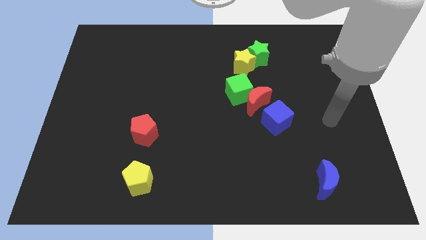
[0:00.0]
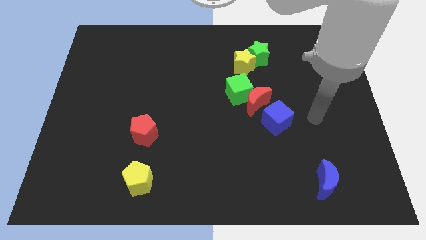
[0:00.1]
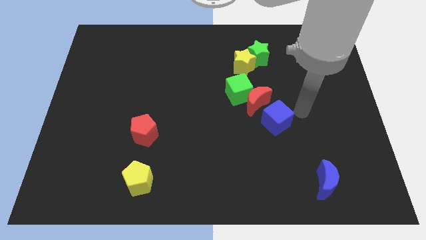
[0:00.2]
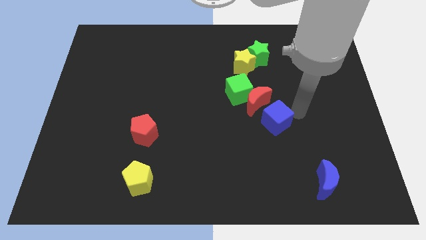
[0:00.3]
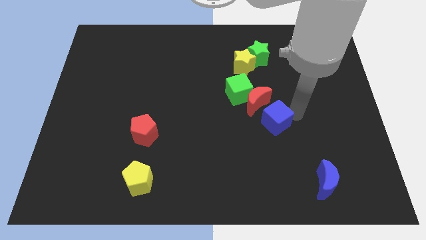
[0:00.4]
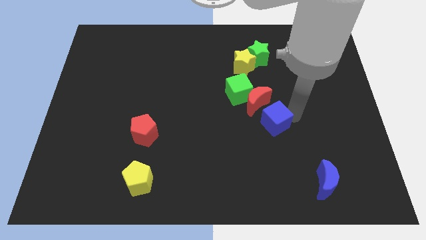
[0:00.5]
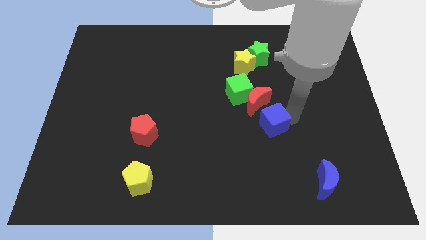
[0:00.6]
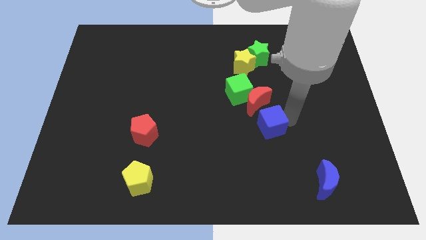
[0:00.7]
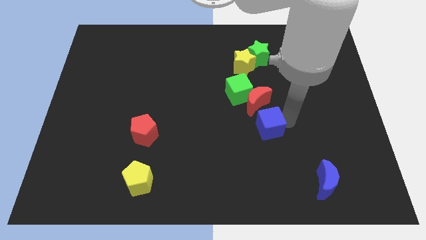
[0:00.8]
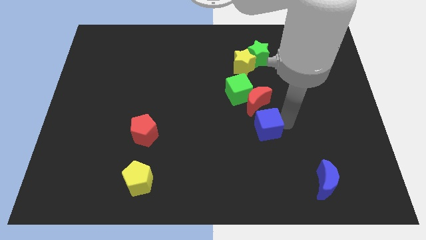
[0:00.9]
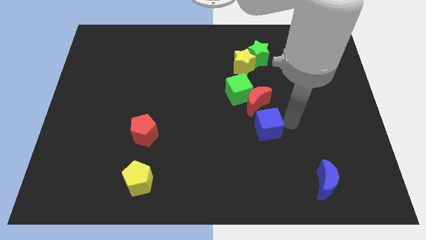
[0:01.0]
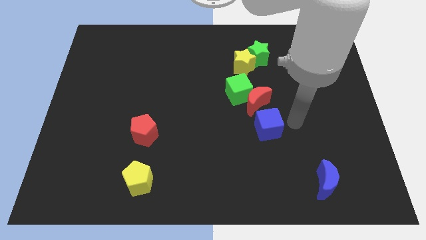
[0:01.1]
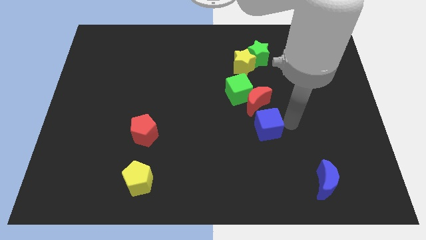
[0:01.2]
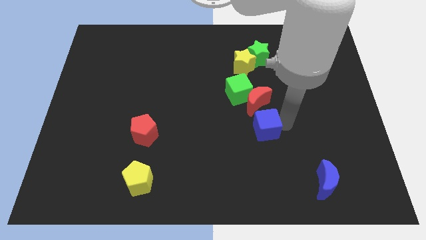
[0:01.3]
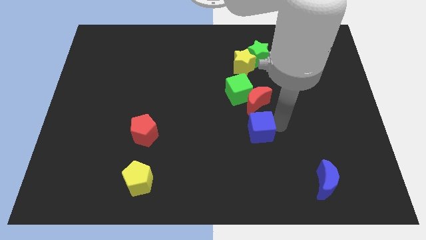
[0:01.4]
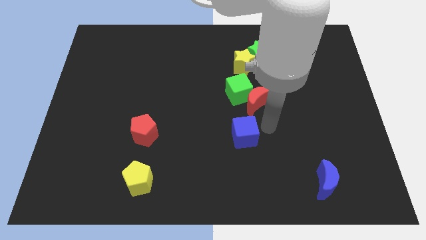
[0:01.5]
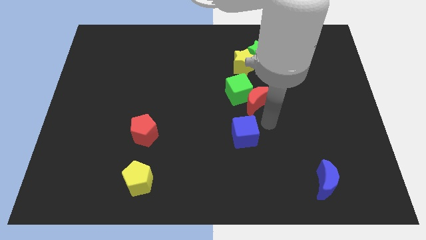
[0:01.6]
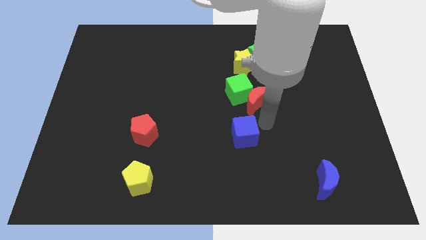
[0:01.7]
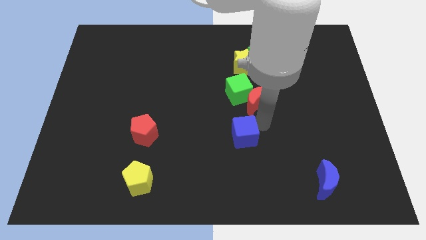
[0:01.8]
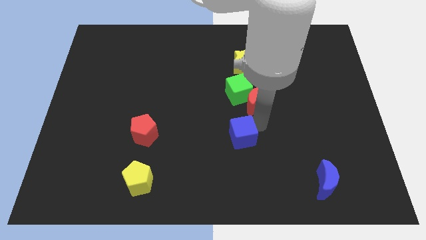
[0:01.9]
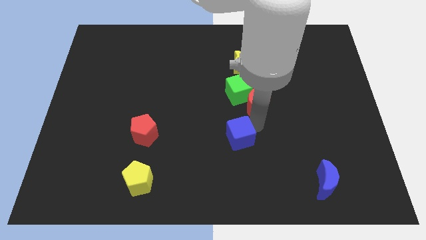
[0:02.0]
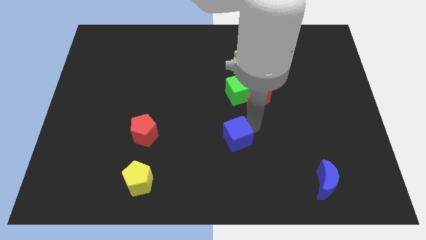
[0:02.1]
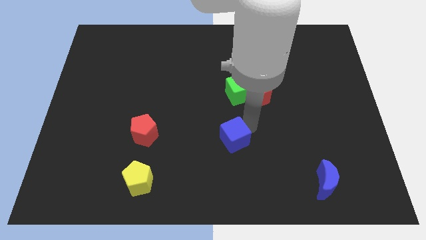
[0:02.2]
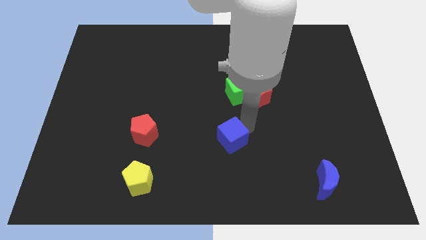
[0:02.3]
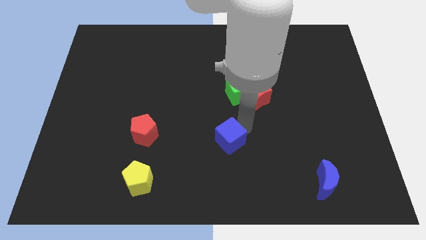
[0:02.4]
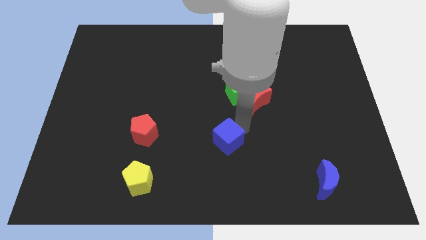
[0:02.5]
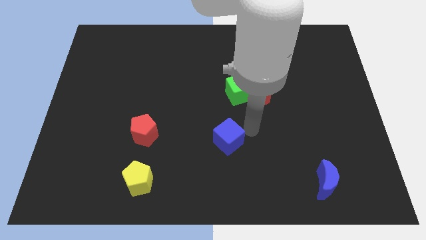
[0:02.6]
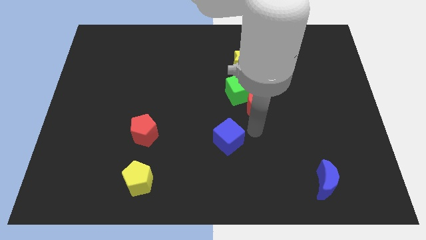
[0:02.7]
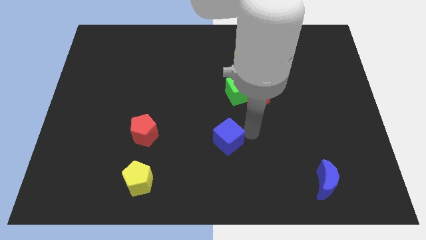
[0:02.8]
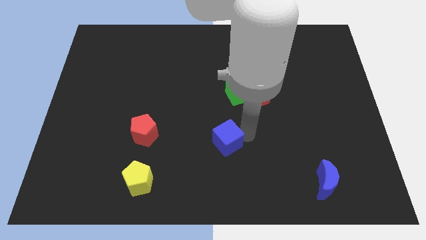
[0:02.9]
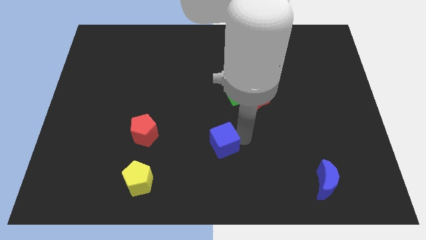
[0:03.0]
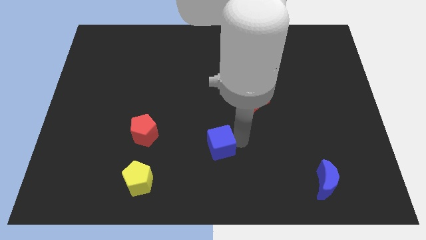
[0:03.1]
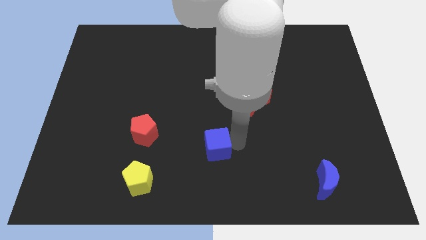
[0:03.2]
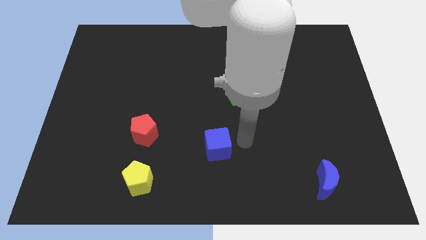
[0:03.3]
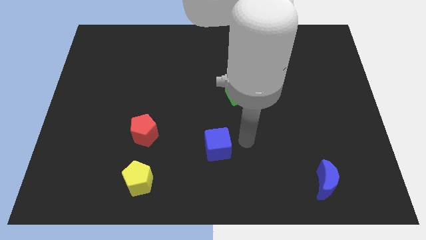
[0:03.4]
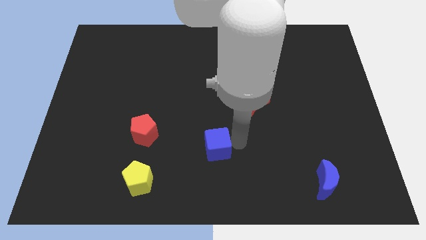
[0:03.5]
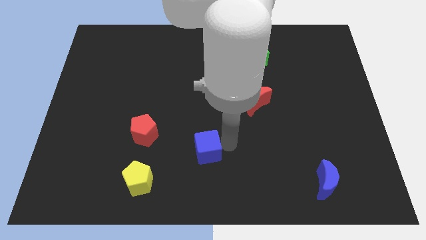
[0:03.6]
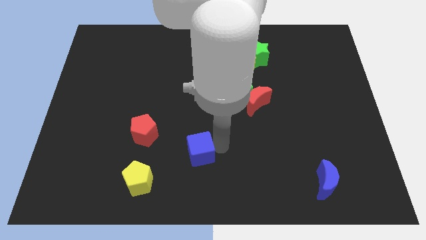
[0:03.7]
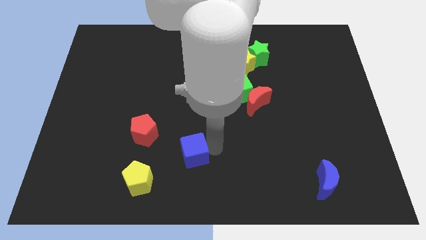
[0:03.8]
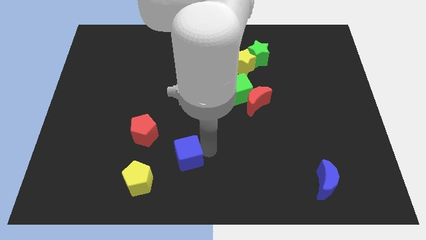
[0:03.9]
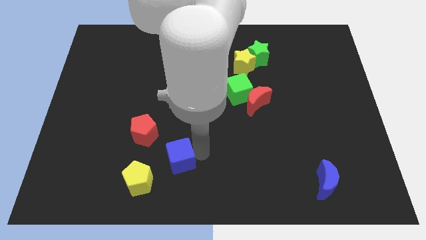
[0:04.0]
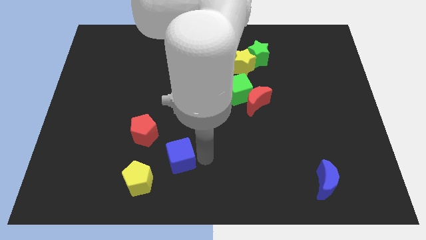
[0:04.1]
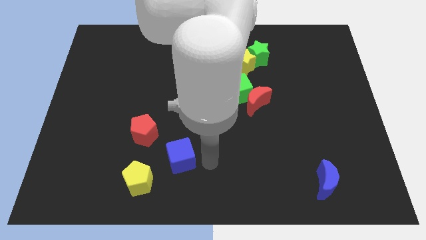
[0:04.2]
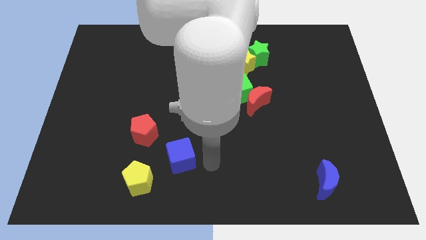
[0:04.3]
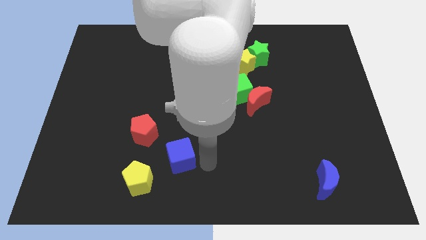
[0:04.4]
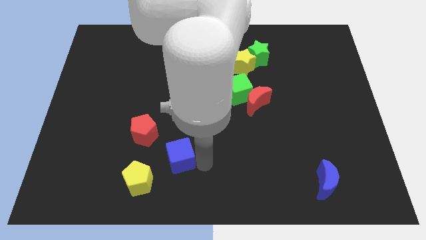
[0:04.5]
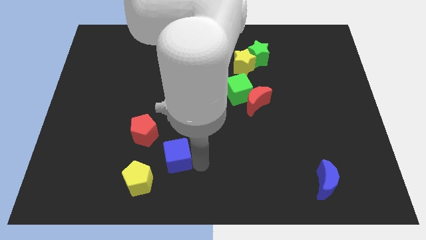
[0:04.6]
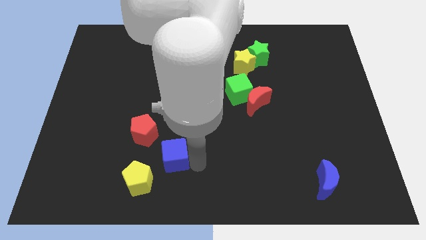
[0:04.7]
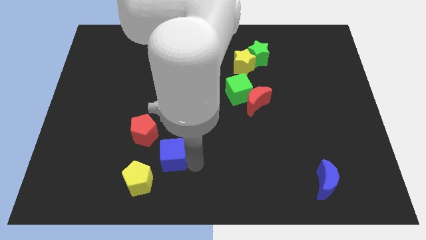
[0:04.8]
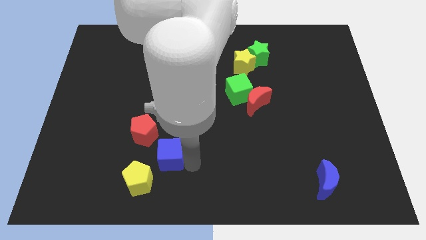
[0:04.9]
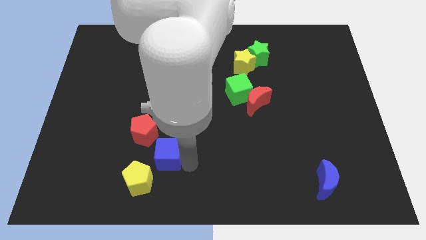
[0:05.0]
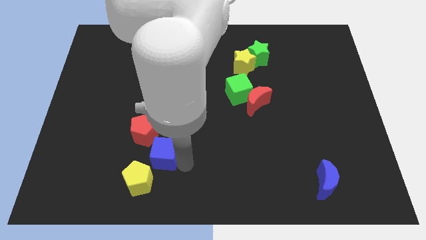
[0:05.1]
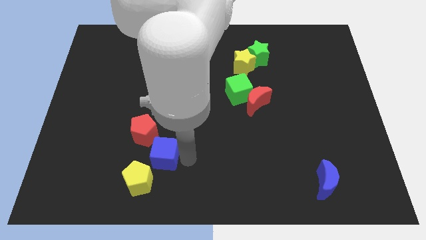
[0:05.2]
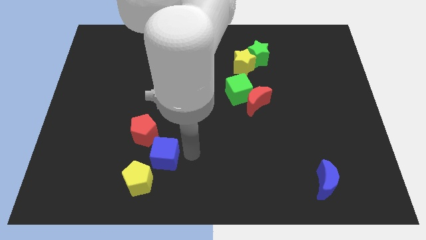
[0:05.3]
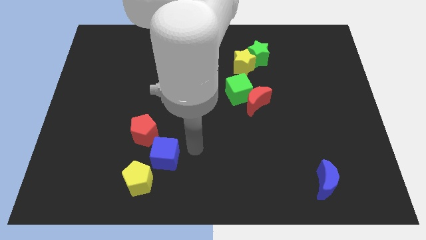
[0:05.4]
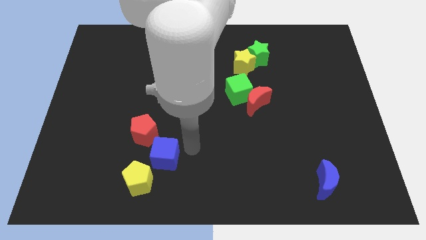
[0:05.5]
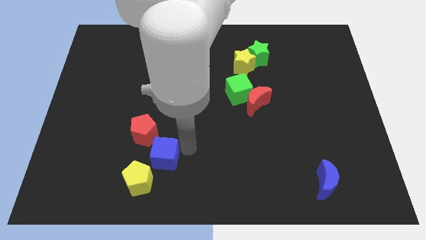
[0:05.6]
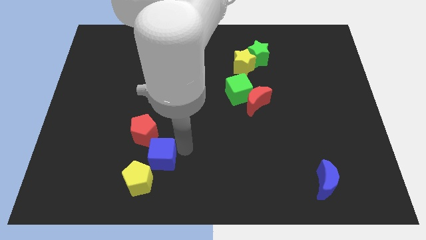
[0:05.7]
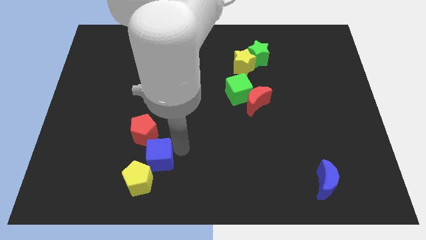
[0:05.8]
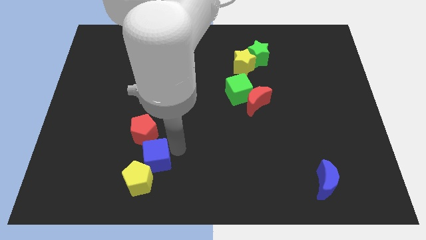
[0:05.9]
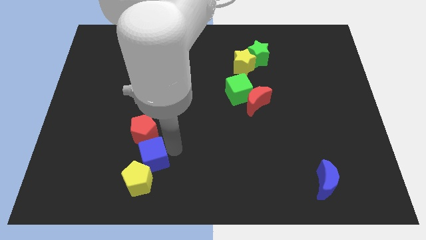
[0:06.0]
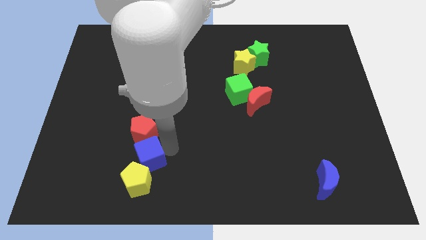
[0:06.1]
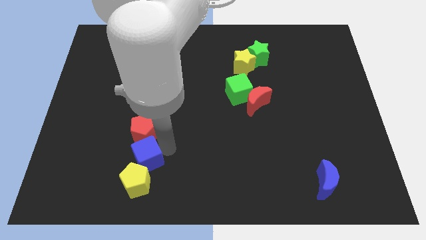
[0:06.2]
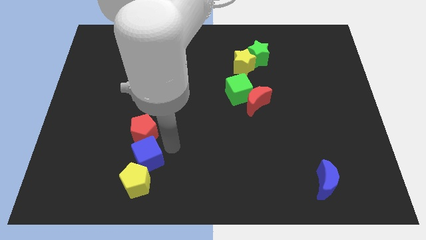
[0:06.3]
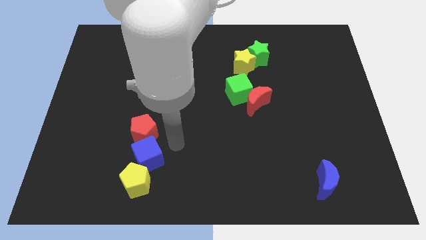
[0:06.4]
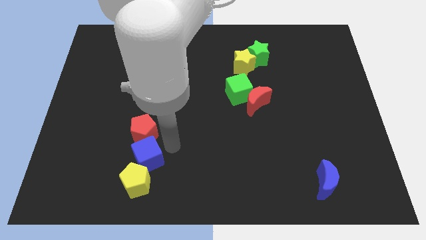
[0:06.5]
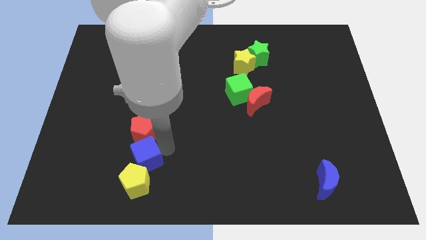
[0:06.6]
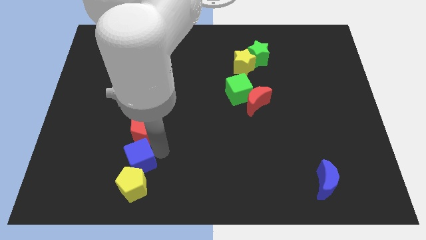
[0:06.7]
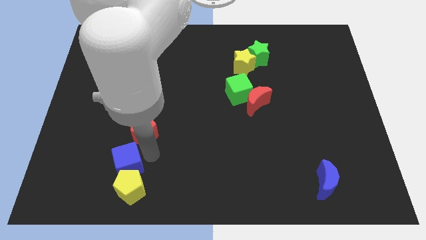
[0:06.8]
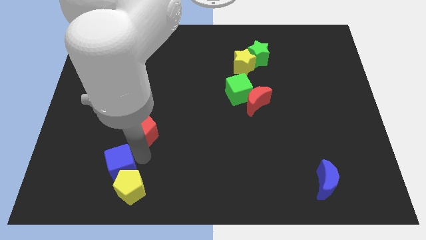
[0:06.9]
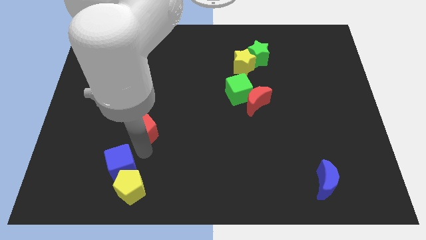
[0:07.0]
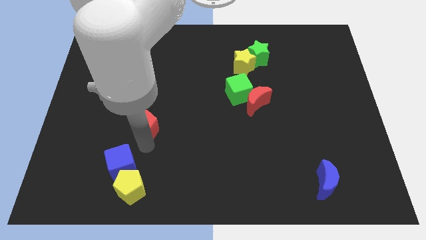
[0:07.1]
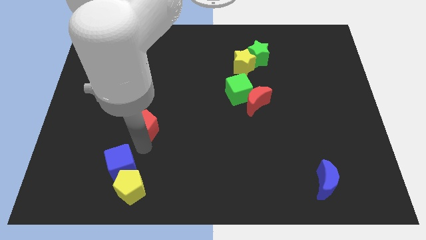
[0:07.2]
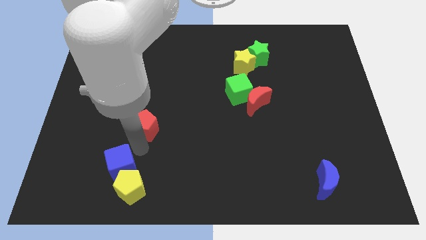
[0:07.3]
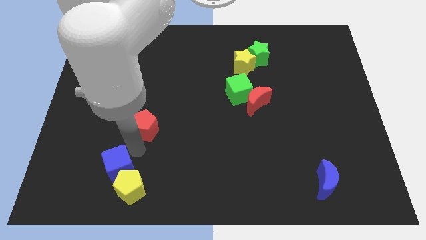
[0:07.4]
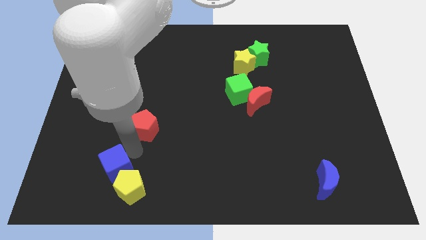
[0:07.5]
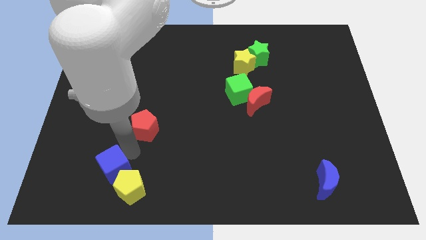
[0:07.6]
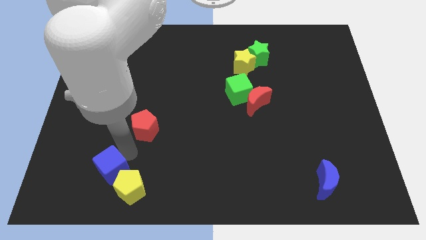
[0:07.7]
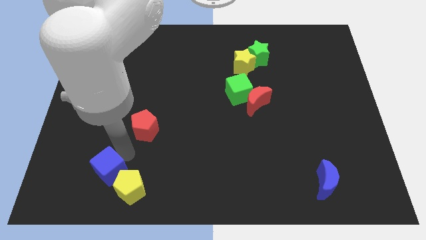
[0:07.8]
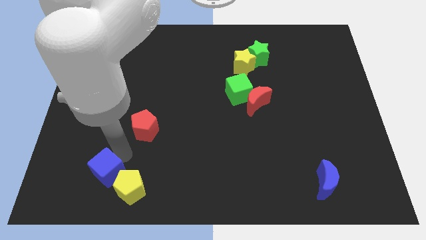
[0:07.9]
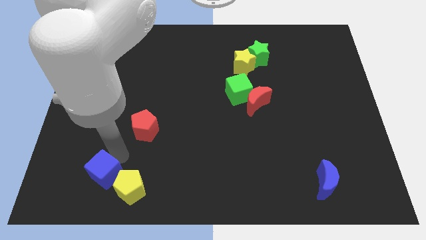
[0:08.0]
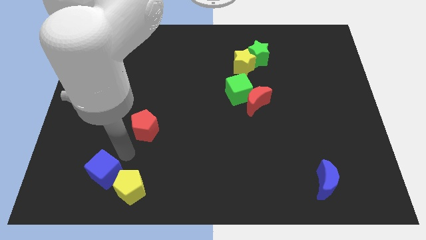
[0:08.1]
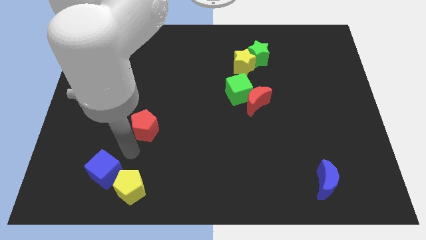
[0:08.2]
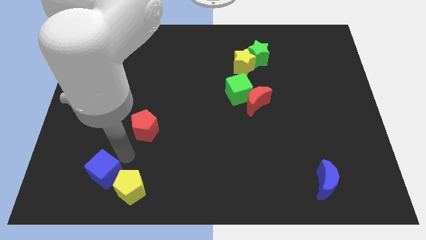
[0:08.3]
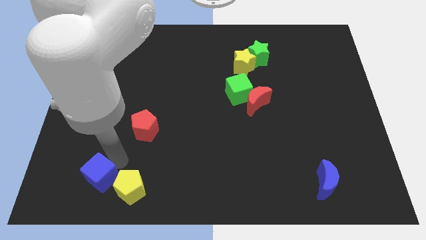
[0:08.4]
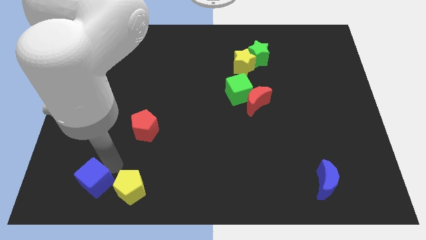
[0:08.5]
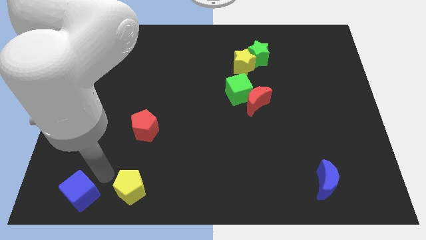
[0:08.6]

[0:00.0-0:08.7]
slide the blue cube to the lower left corner
